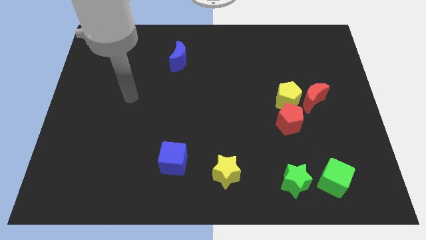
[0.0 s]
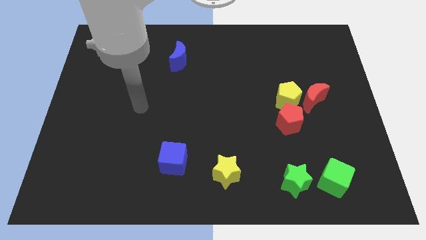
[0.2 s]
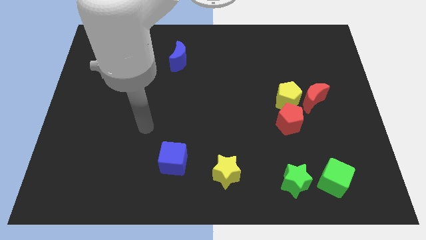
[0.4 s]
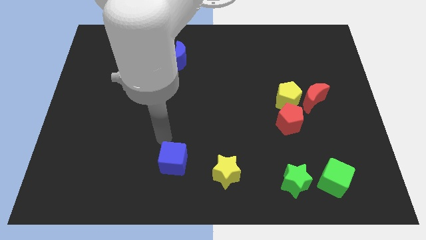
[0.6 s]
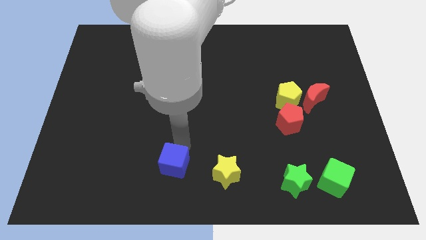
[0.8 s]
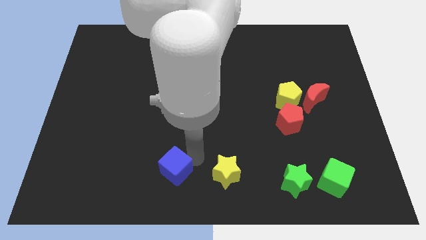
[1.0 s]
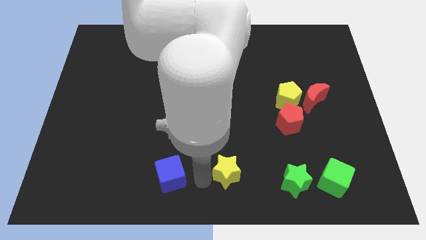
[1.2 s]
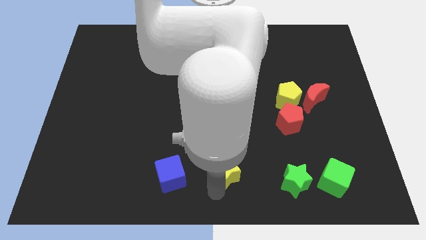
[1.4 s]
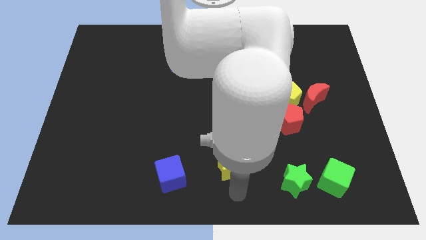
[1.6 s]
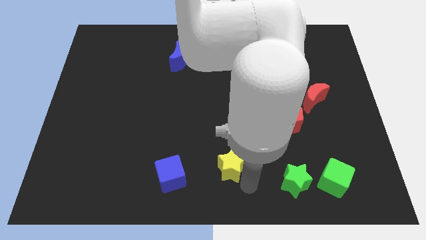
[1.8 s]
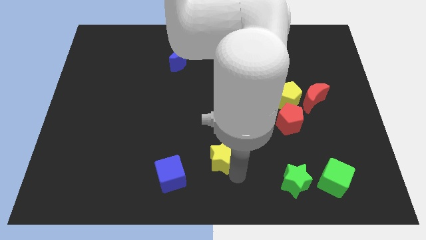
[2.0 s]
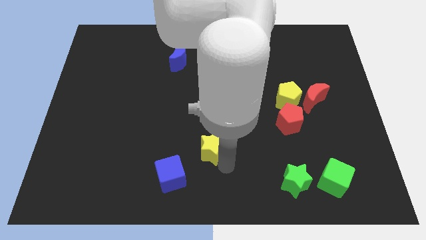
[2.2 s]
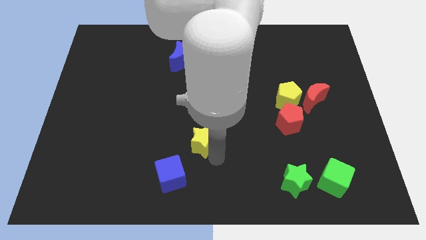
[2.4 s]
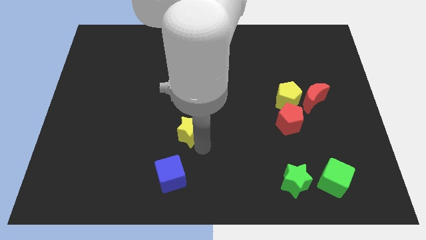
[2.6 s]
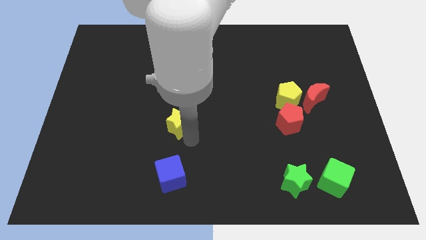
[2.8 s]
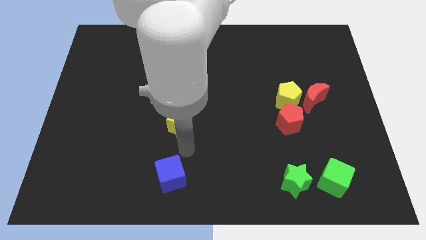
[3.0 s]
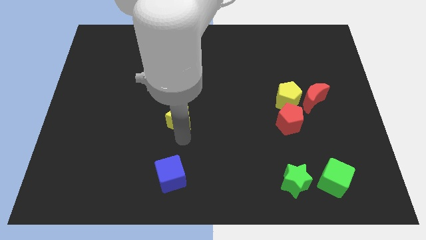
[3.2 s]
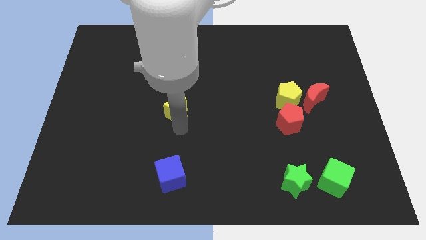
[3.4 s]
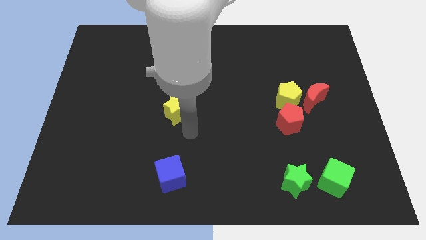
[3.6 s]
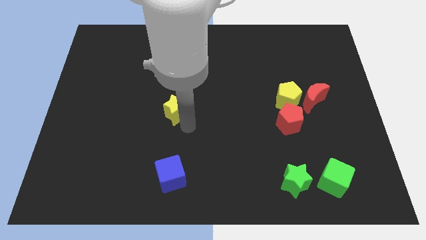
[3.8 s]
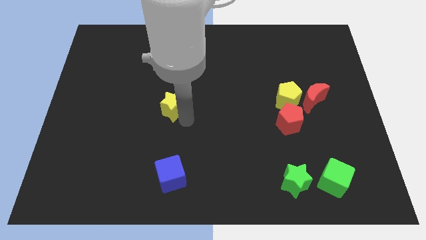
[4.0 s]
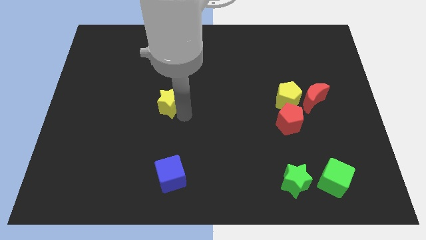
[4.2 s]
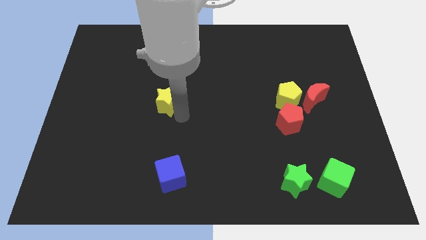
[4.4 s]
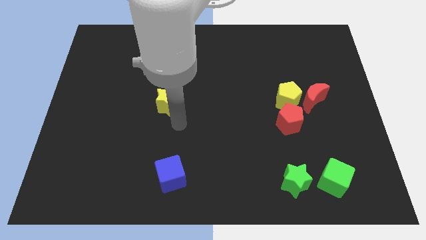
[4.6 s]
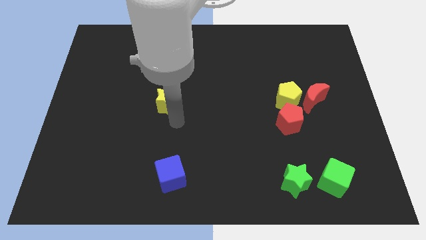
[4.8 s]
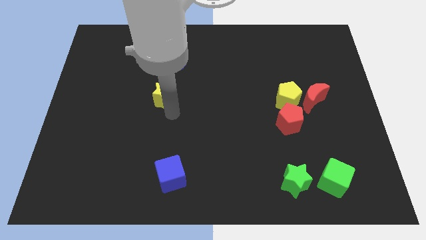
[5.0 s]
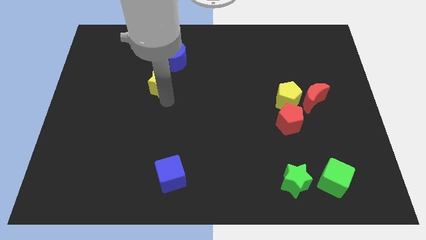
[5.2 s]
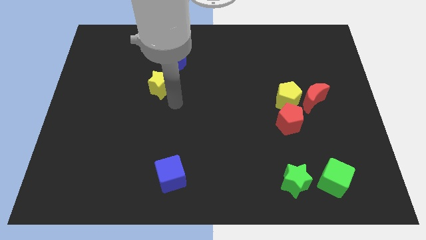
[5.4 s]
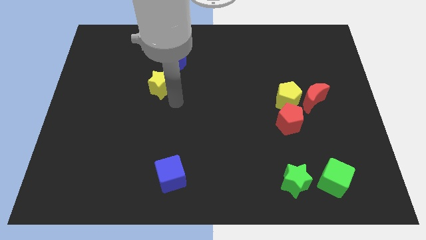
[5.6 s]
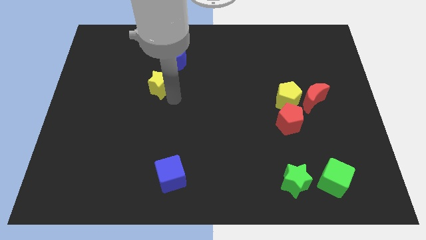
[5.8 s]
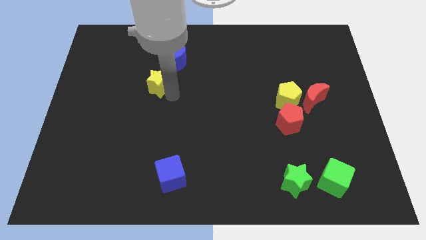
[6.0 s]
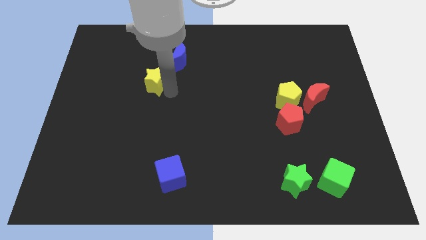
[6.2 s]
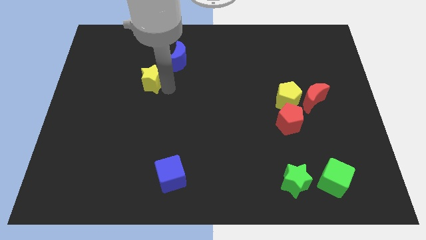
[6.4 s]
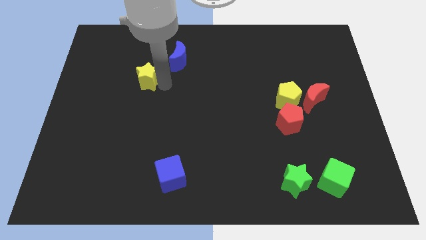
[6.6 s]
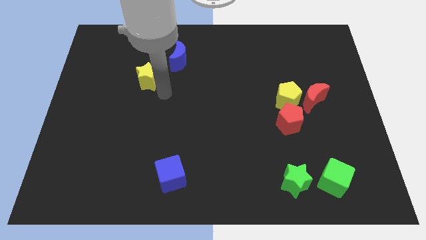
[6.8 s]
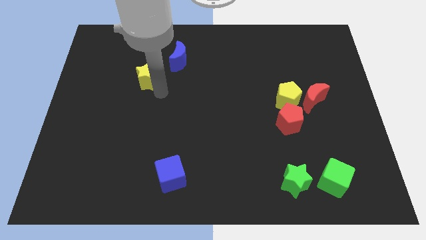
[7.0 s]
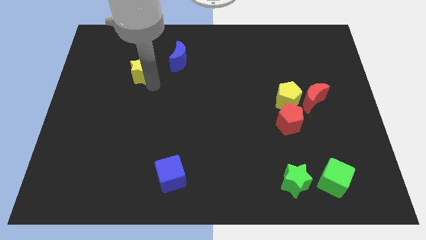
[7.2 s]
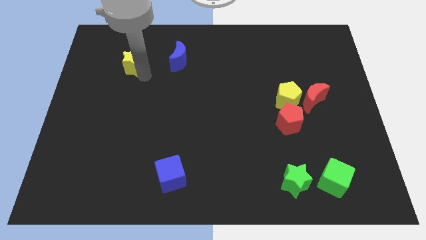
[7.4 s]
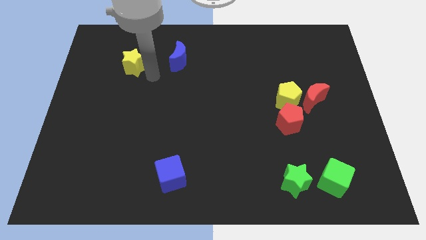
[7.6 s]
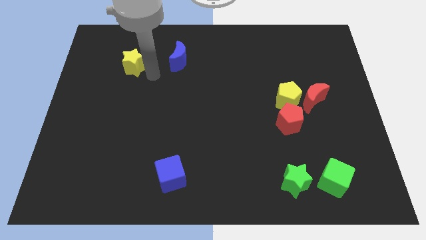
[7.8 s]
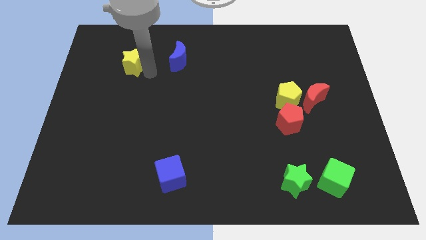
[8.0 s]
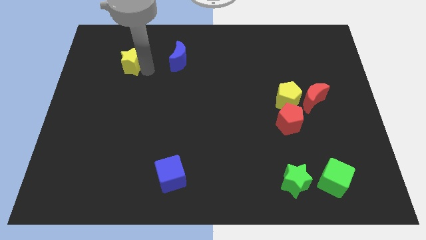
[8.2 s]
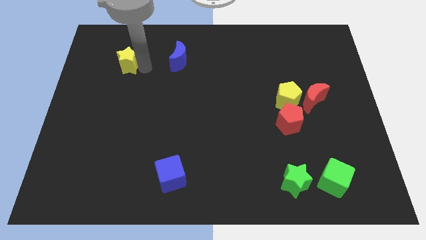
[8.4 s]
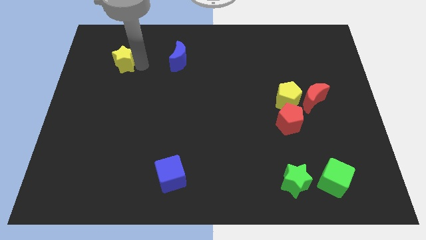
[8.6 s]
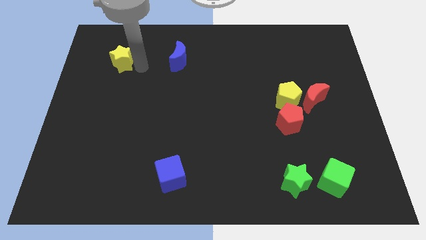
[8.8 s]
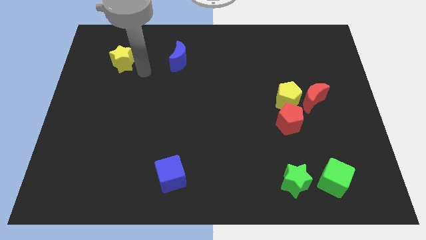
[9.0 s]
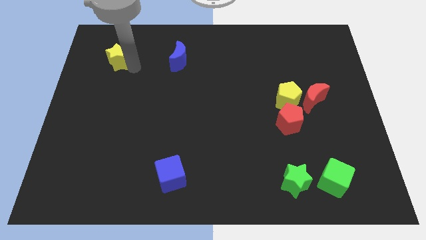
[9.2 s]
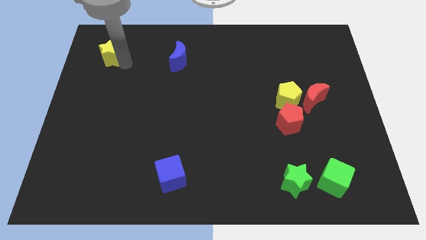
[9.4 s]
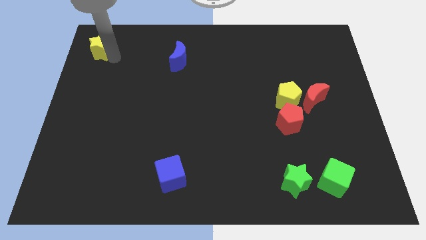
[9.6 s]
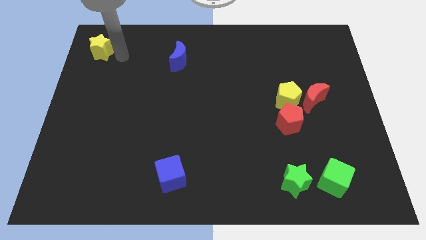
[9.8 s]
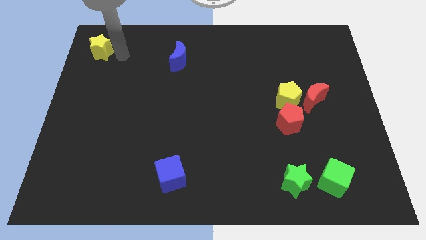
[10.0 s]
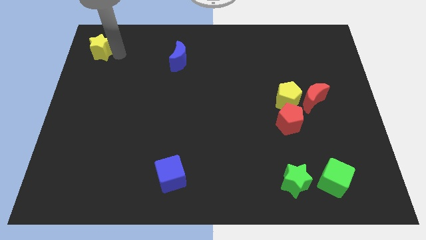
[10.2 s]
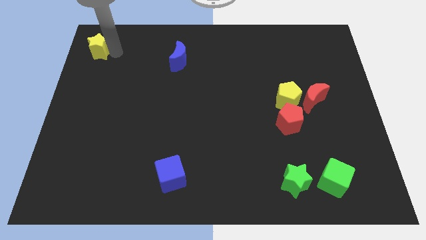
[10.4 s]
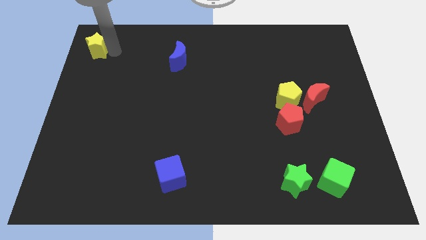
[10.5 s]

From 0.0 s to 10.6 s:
slide the yellow star to the top left corner

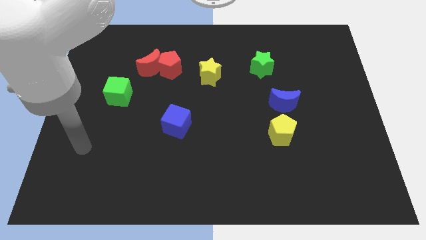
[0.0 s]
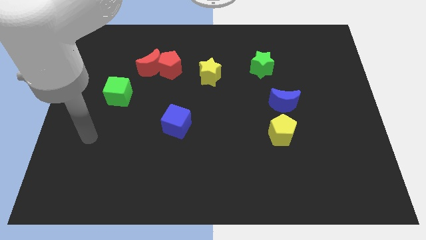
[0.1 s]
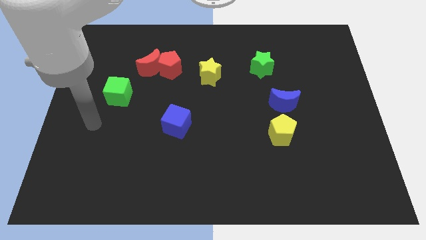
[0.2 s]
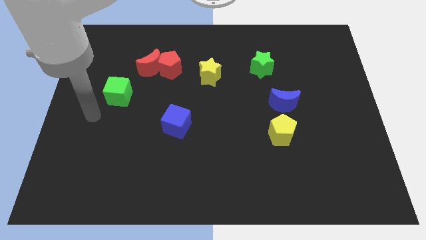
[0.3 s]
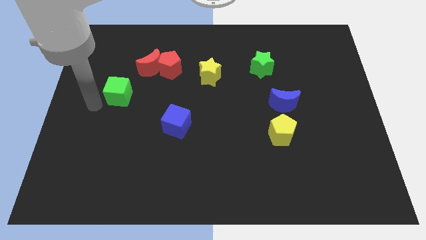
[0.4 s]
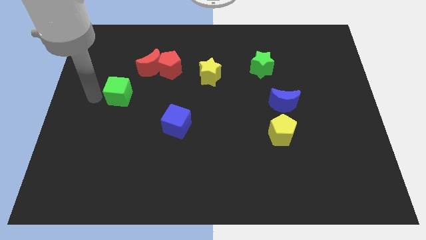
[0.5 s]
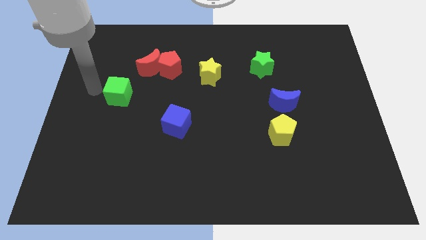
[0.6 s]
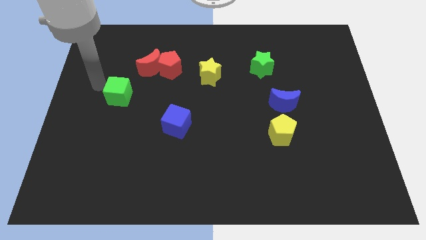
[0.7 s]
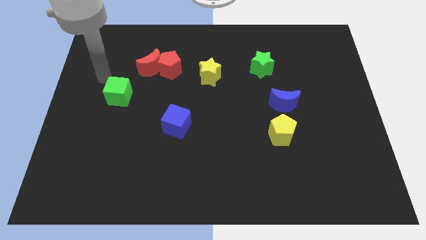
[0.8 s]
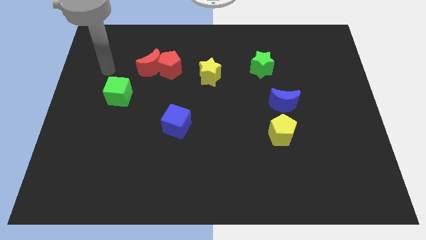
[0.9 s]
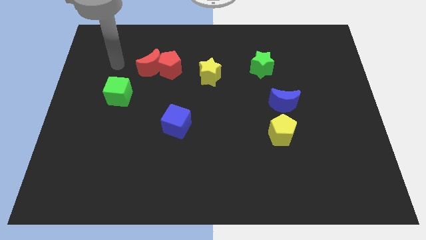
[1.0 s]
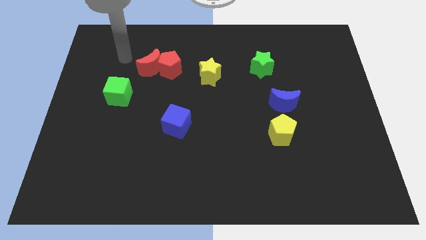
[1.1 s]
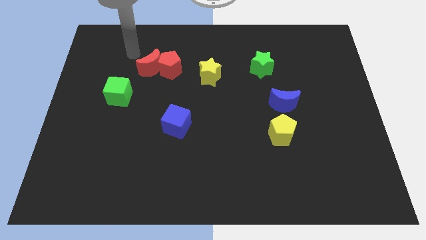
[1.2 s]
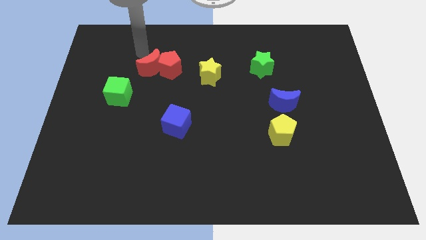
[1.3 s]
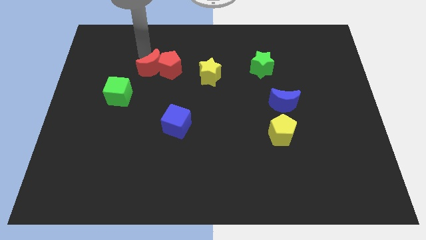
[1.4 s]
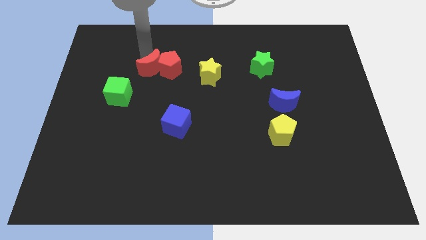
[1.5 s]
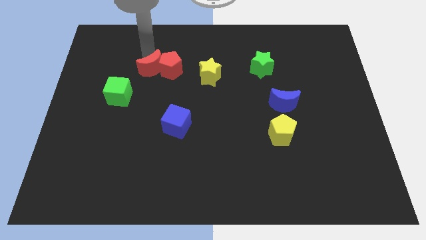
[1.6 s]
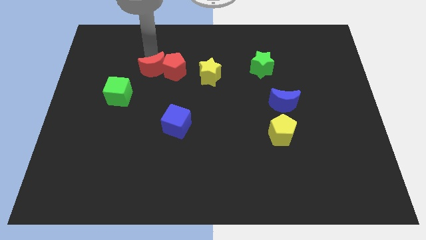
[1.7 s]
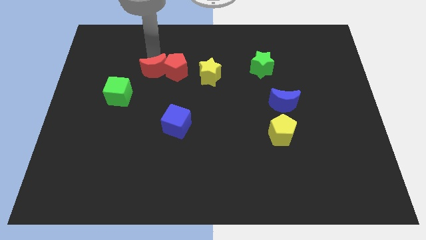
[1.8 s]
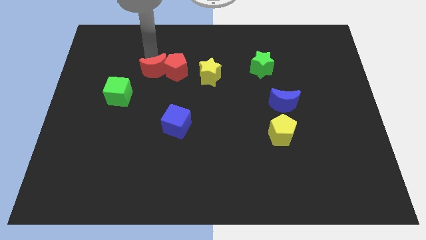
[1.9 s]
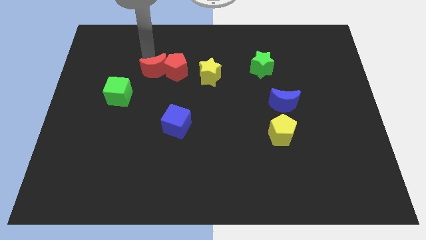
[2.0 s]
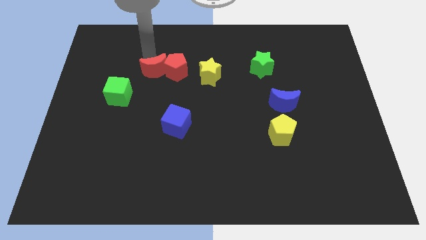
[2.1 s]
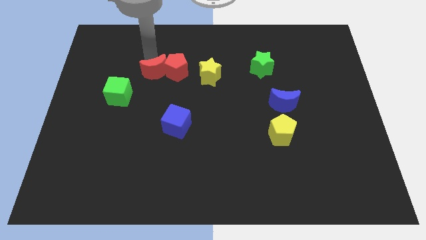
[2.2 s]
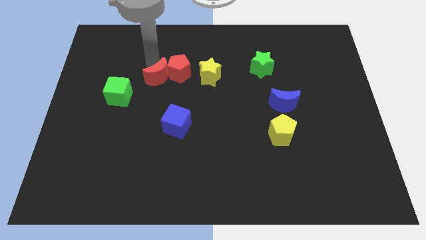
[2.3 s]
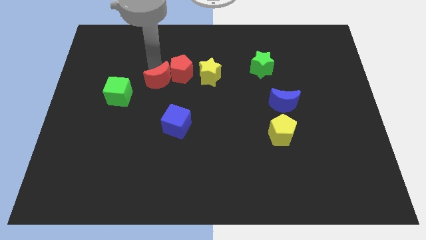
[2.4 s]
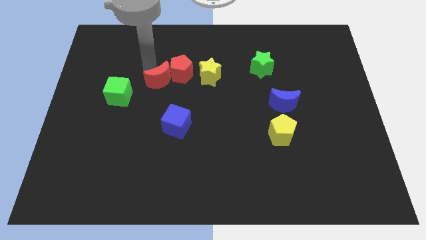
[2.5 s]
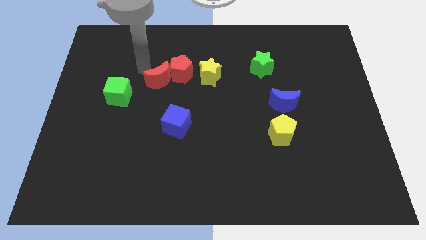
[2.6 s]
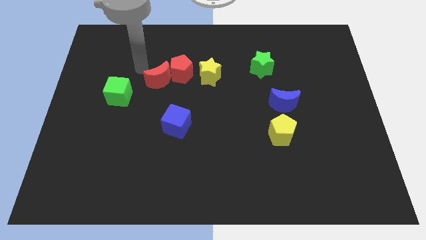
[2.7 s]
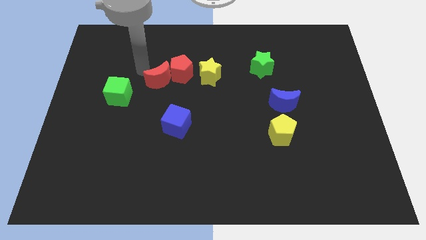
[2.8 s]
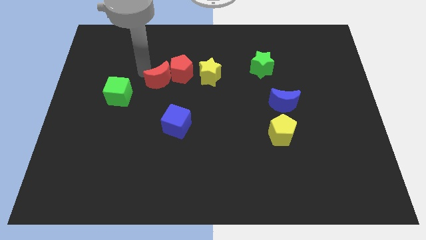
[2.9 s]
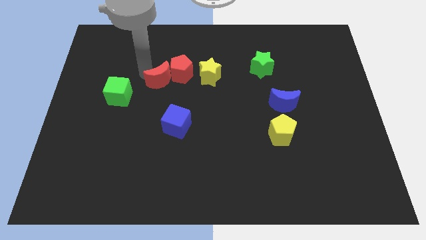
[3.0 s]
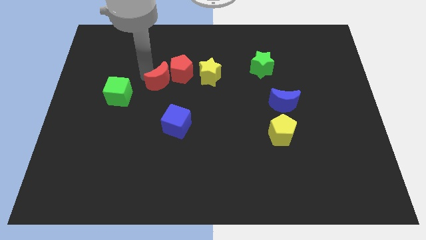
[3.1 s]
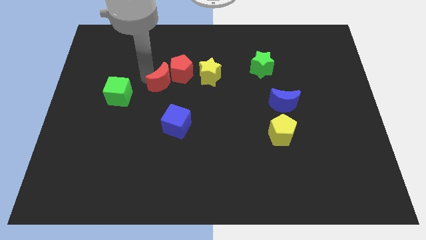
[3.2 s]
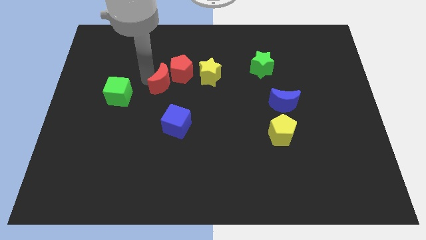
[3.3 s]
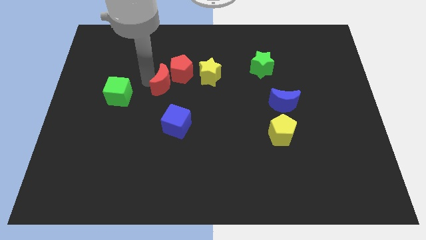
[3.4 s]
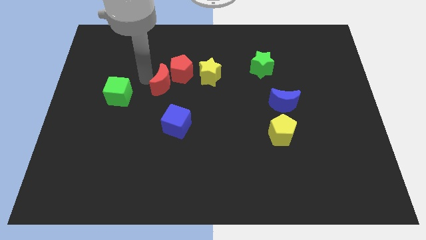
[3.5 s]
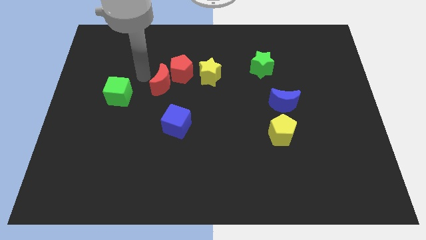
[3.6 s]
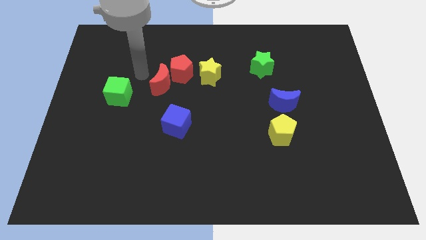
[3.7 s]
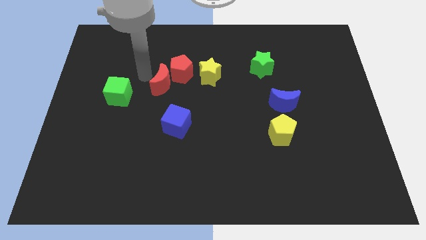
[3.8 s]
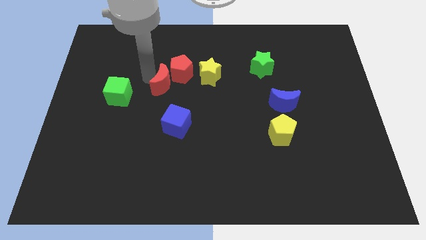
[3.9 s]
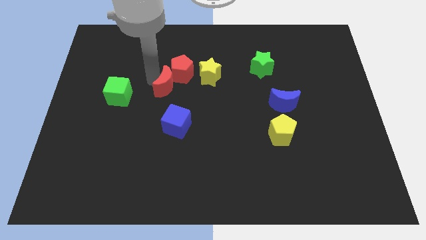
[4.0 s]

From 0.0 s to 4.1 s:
push the red moon to the middle
